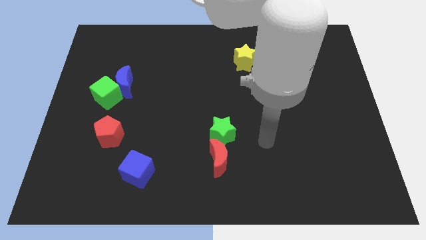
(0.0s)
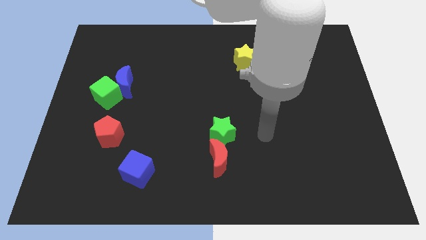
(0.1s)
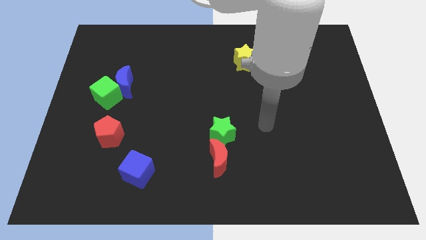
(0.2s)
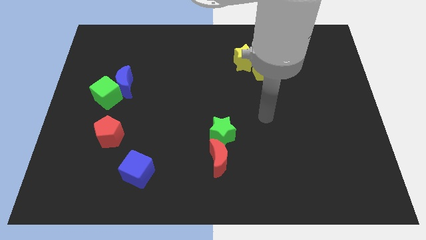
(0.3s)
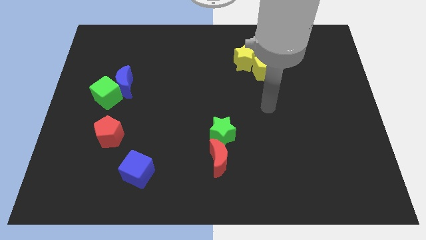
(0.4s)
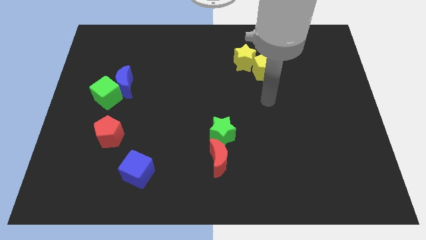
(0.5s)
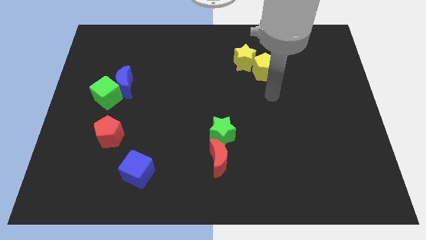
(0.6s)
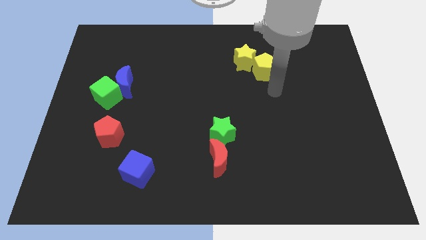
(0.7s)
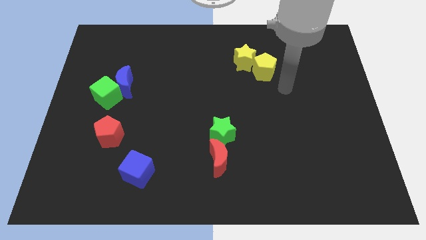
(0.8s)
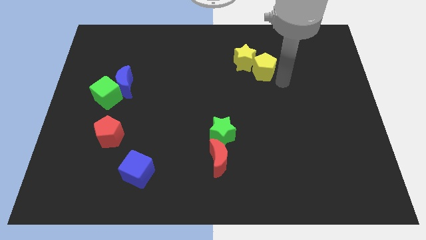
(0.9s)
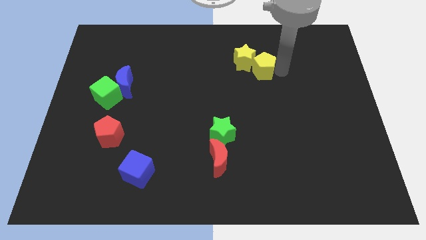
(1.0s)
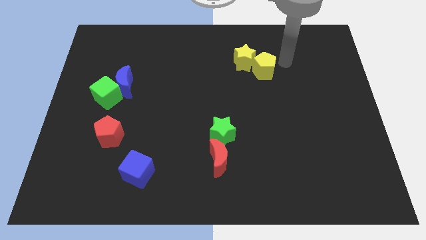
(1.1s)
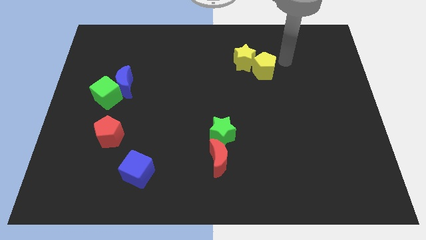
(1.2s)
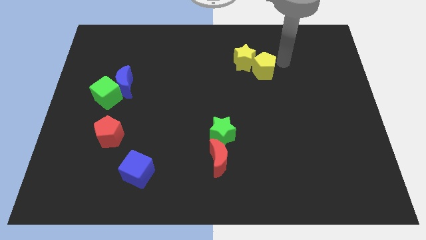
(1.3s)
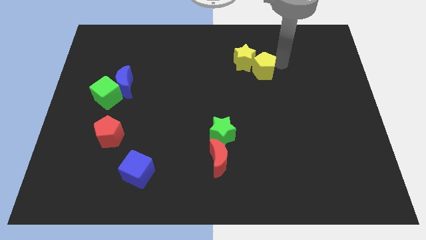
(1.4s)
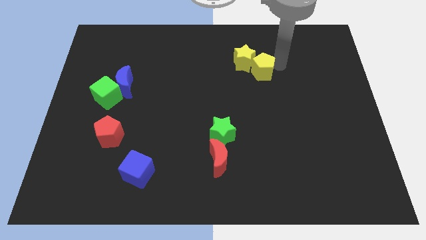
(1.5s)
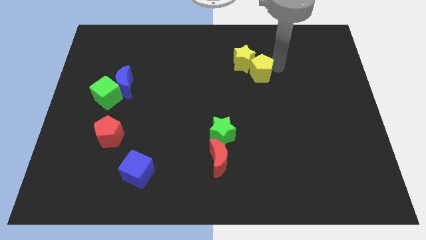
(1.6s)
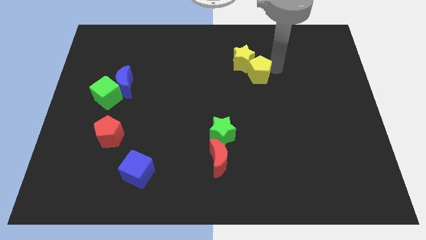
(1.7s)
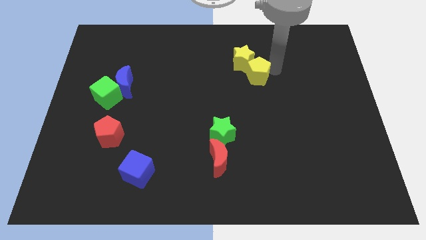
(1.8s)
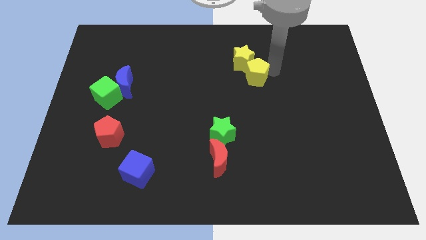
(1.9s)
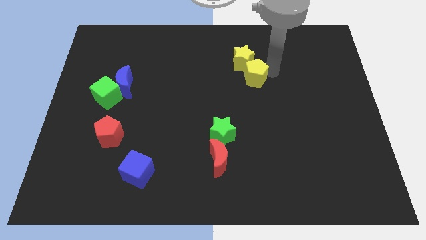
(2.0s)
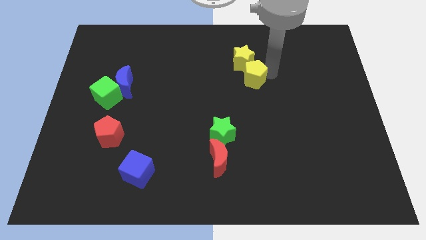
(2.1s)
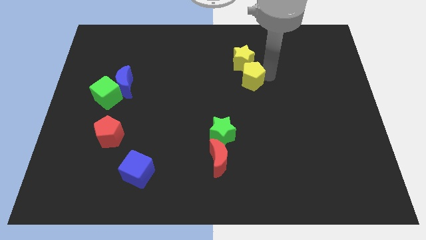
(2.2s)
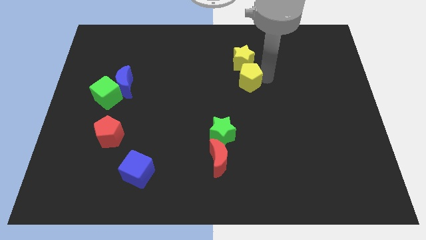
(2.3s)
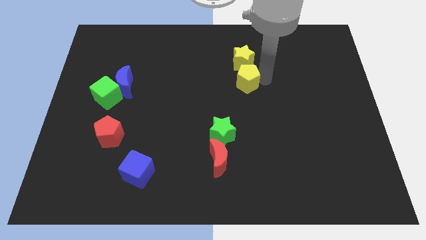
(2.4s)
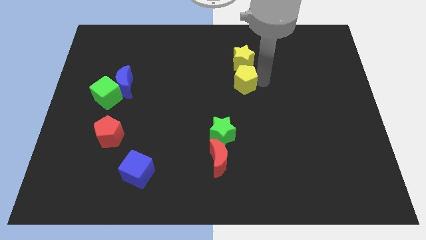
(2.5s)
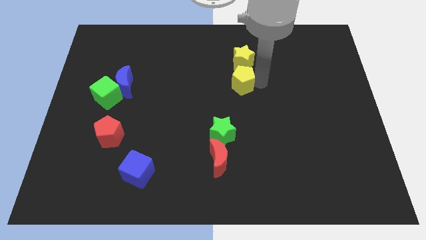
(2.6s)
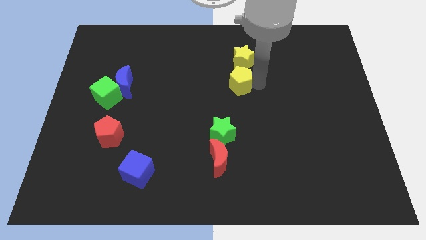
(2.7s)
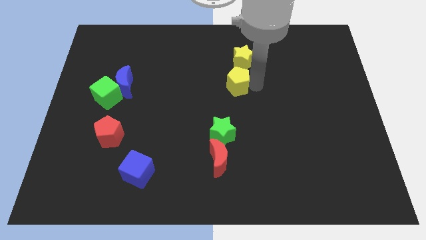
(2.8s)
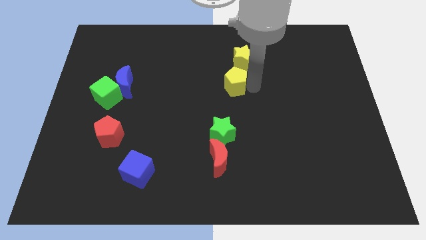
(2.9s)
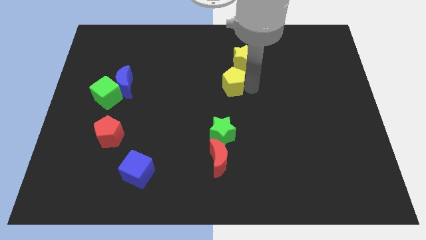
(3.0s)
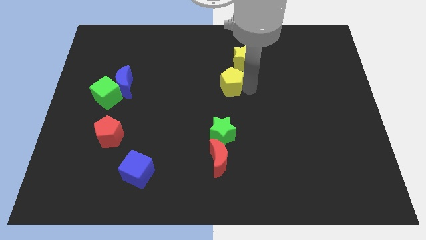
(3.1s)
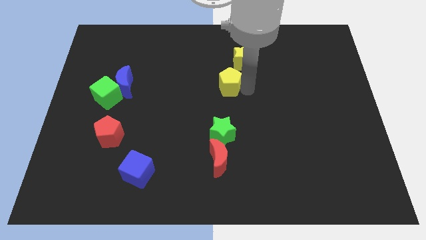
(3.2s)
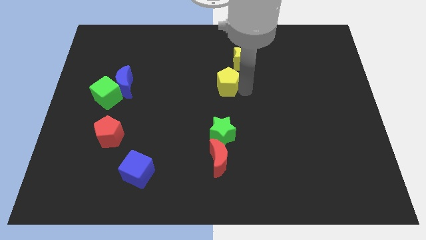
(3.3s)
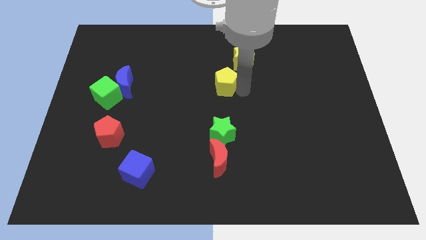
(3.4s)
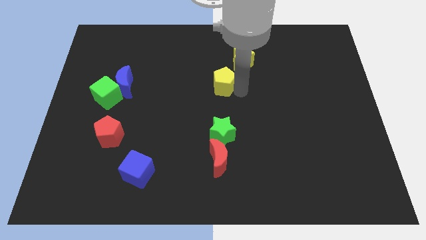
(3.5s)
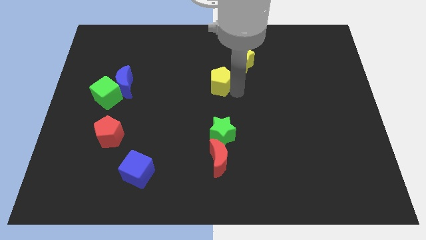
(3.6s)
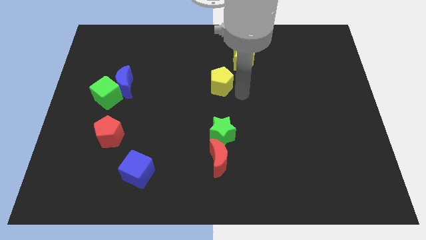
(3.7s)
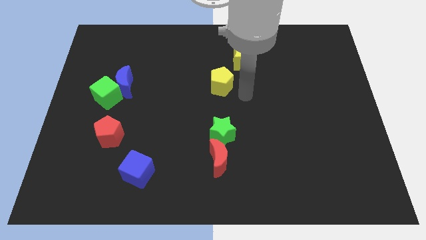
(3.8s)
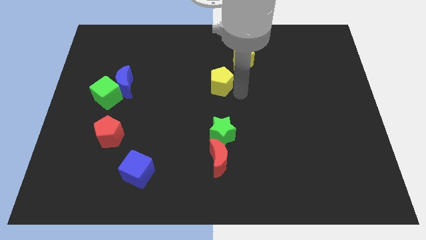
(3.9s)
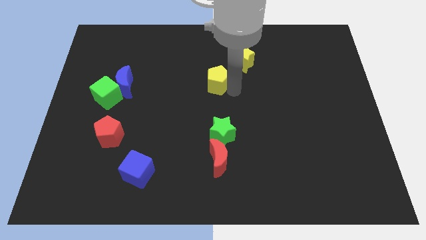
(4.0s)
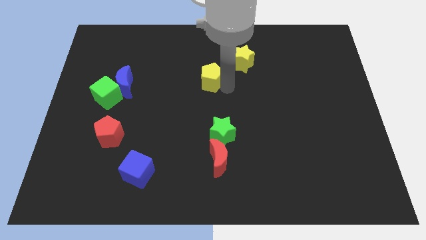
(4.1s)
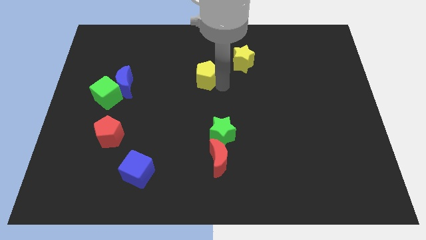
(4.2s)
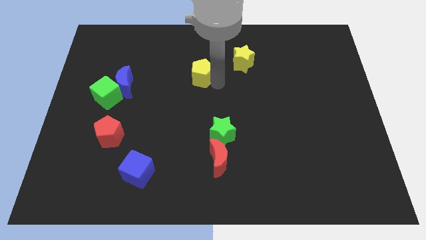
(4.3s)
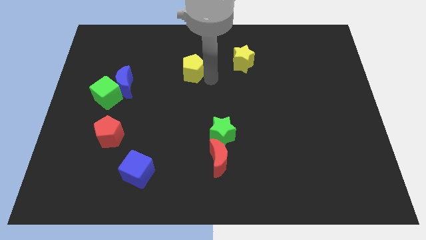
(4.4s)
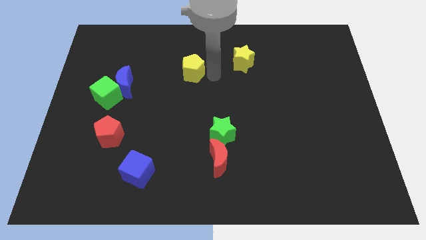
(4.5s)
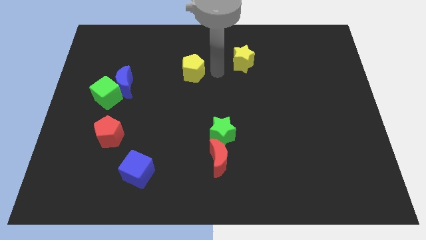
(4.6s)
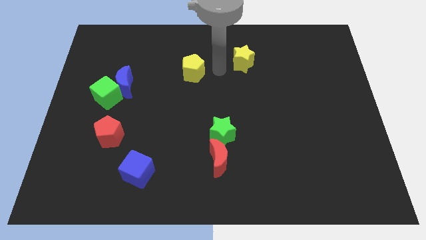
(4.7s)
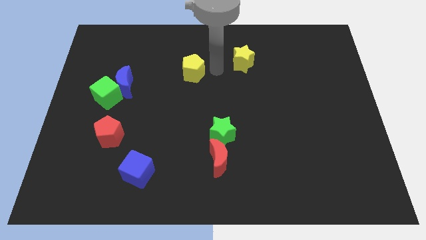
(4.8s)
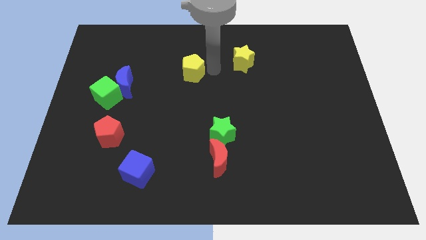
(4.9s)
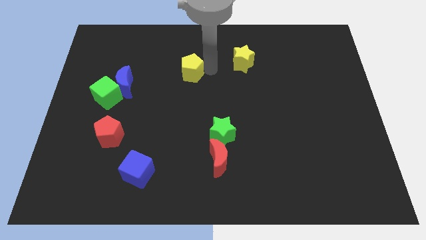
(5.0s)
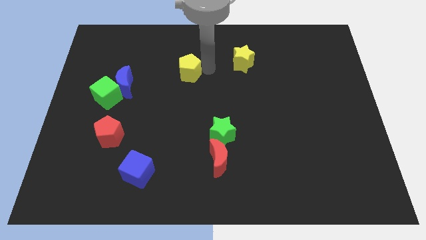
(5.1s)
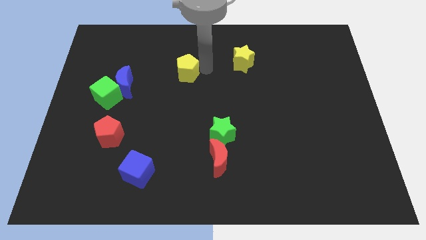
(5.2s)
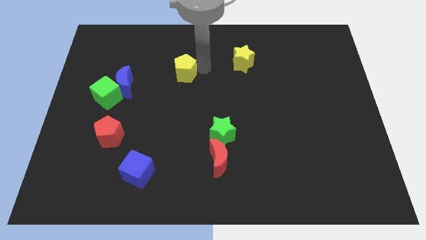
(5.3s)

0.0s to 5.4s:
slide the yellow pentagon to the left

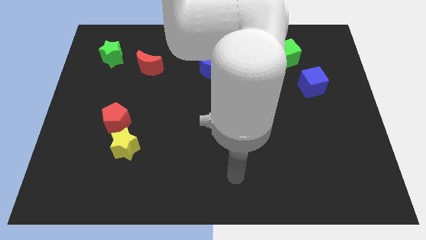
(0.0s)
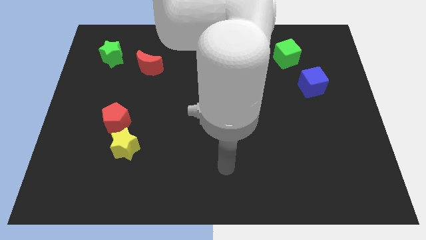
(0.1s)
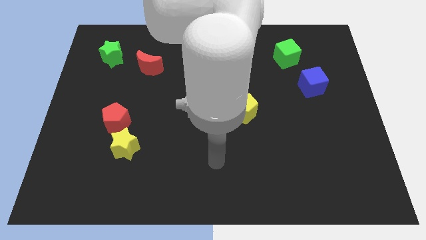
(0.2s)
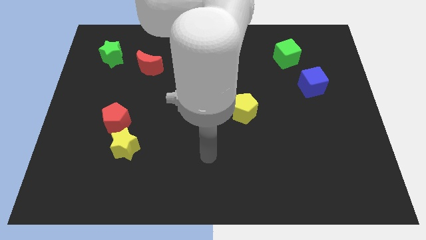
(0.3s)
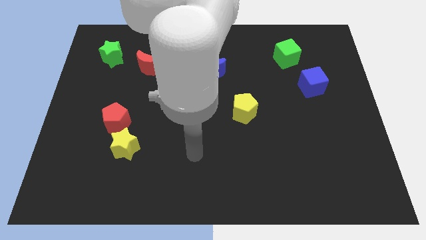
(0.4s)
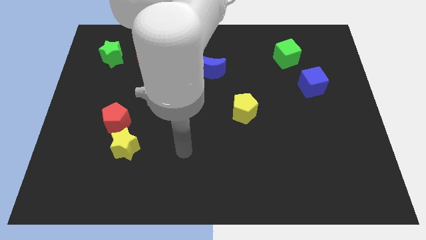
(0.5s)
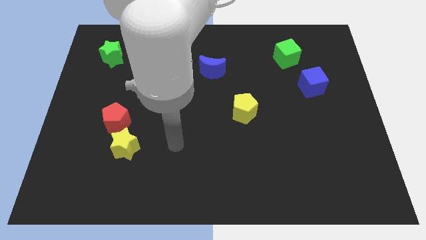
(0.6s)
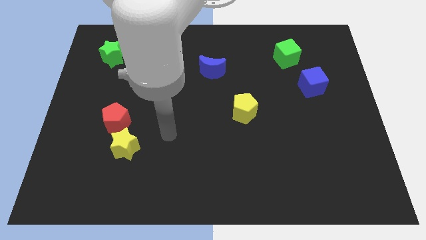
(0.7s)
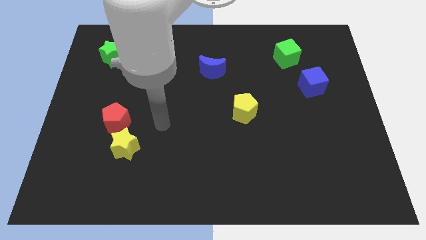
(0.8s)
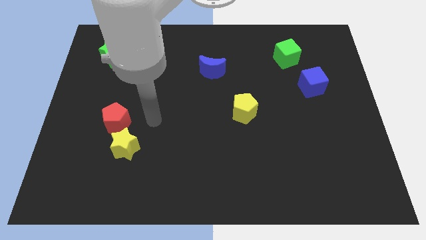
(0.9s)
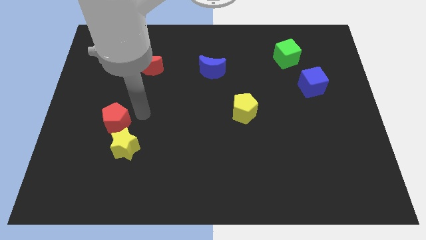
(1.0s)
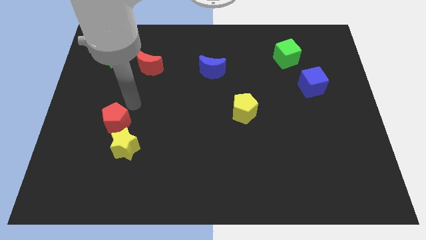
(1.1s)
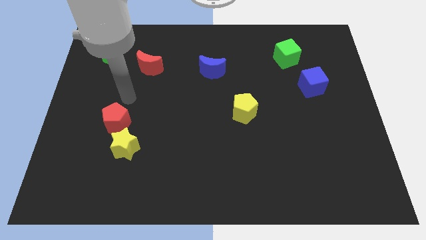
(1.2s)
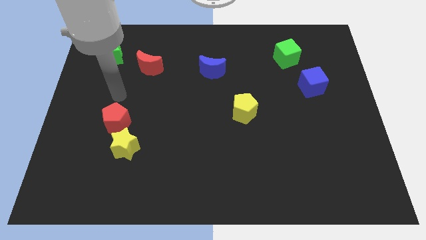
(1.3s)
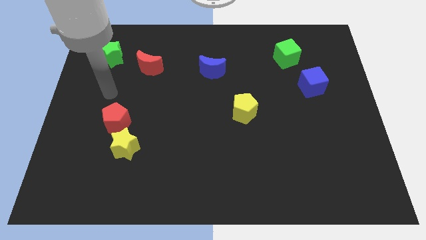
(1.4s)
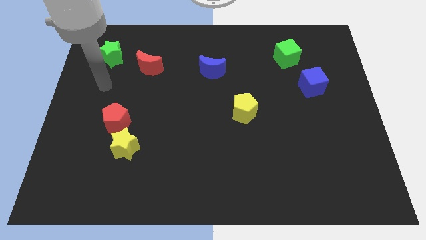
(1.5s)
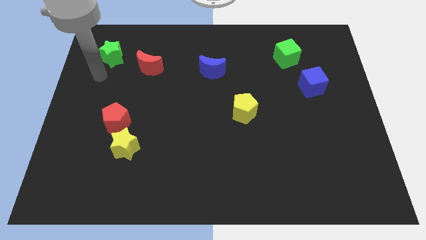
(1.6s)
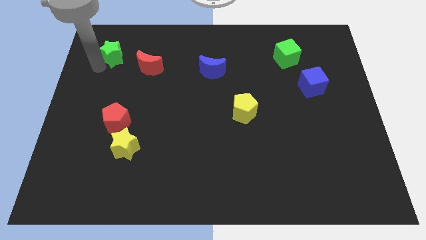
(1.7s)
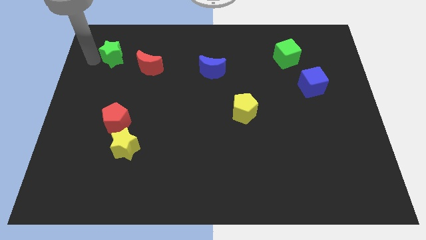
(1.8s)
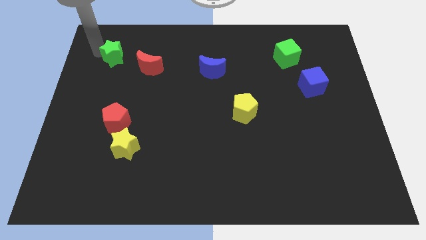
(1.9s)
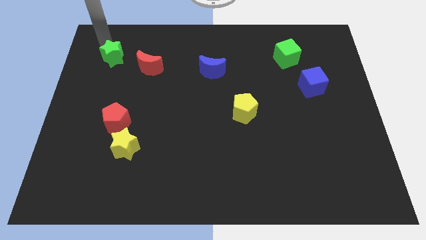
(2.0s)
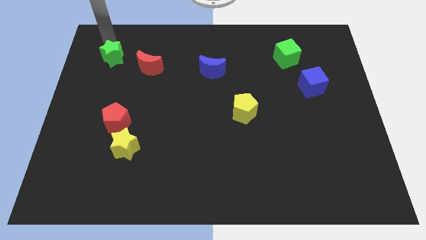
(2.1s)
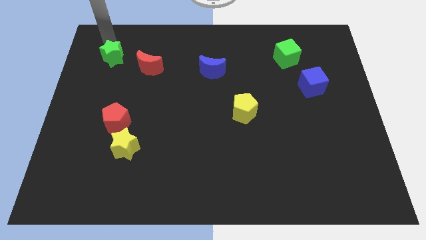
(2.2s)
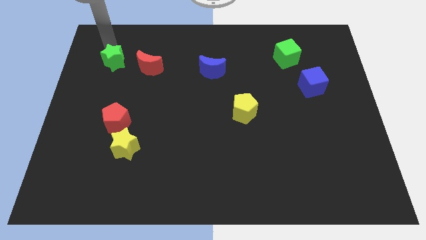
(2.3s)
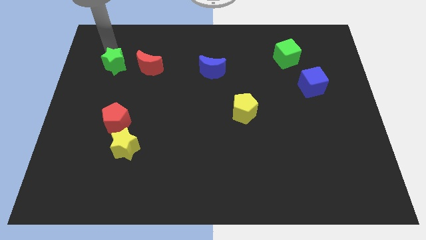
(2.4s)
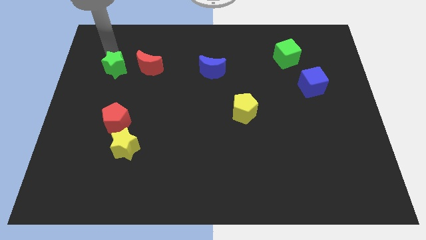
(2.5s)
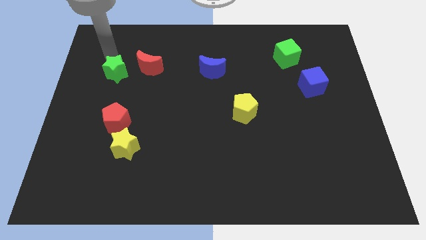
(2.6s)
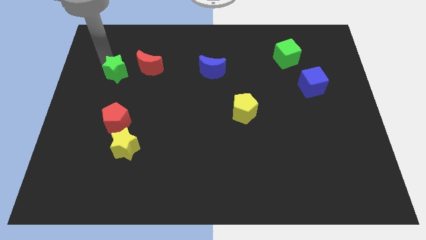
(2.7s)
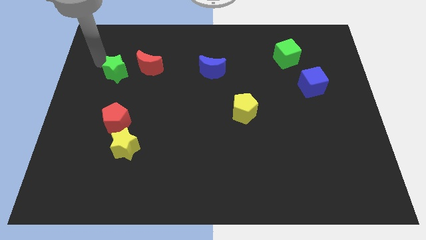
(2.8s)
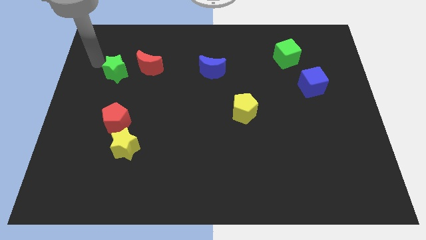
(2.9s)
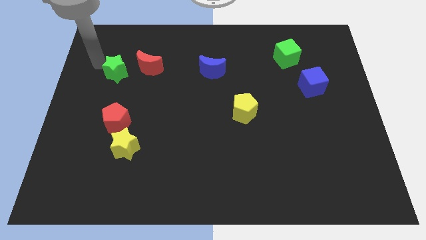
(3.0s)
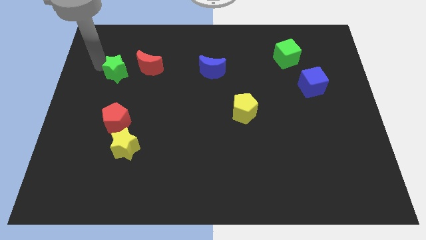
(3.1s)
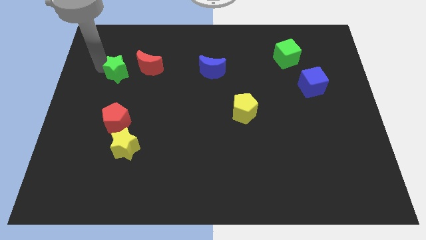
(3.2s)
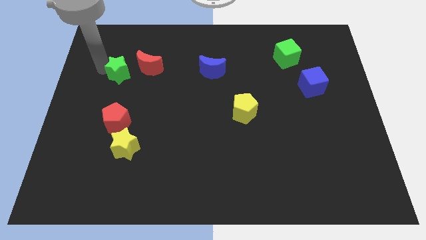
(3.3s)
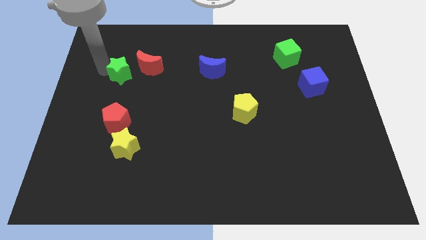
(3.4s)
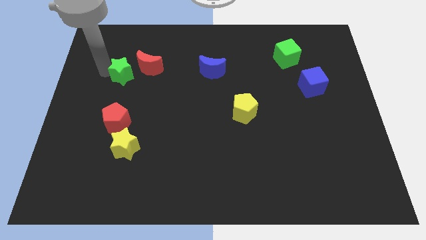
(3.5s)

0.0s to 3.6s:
move the green star diagonally downwards and to the right a bit
